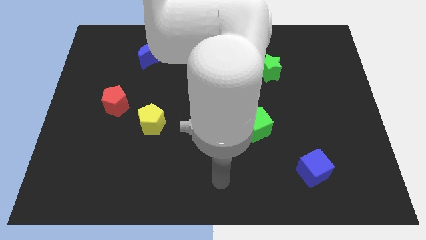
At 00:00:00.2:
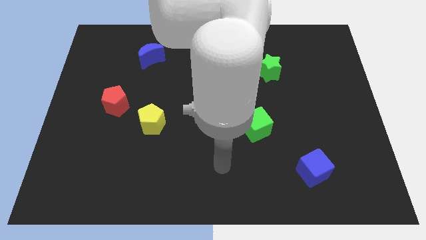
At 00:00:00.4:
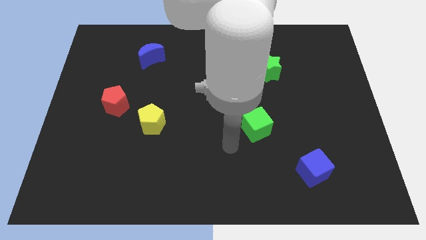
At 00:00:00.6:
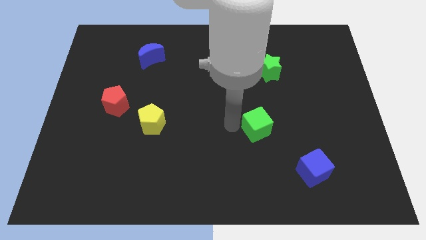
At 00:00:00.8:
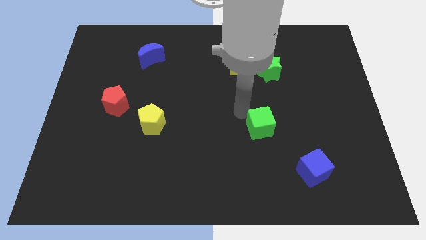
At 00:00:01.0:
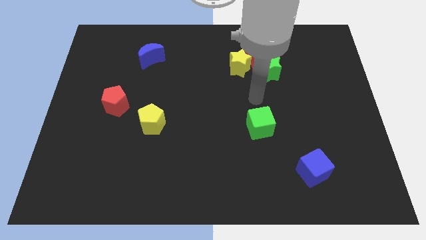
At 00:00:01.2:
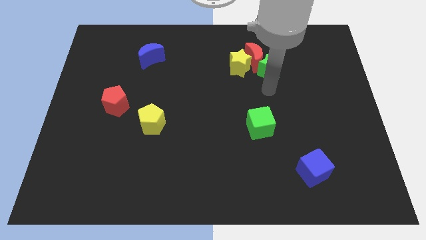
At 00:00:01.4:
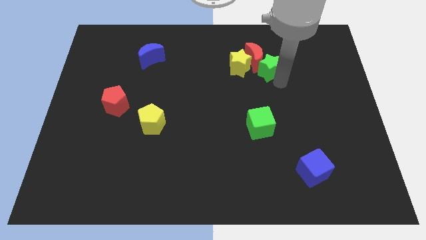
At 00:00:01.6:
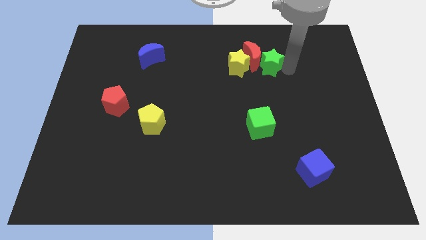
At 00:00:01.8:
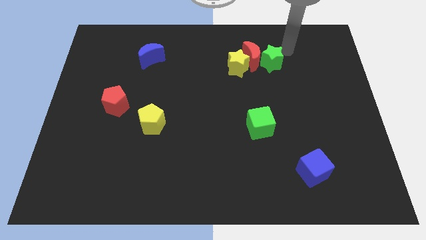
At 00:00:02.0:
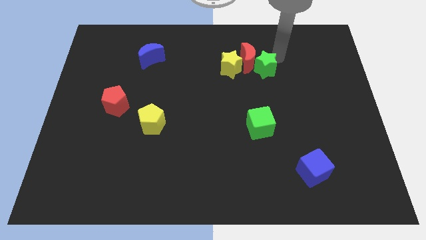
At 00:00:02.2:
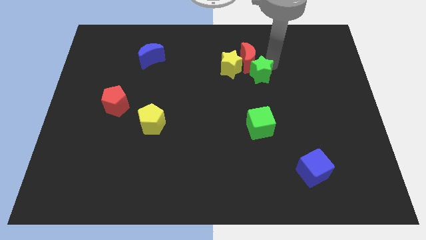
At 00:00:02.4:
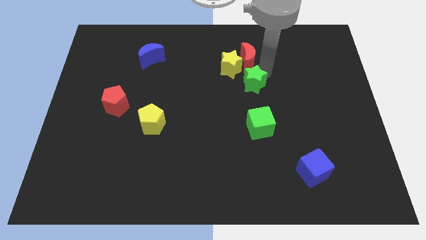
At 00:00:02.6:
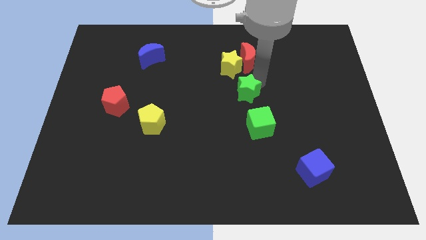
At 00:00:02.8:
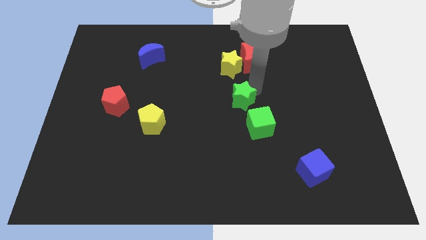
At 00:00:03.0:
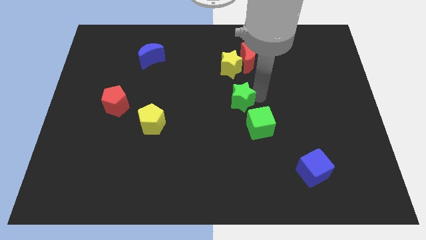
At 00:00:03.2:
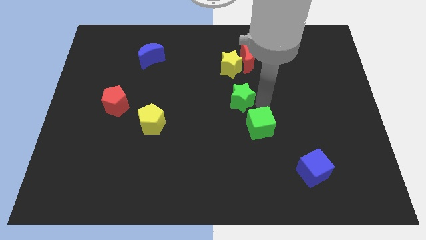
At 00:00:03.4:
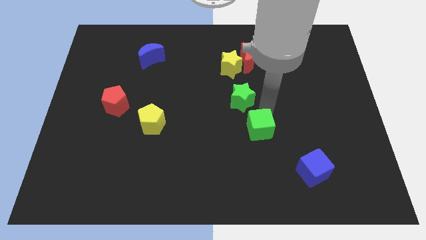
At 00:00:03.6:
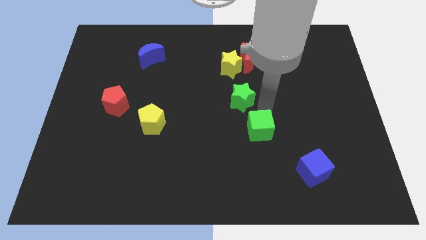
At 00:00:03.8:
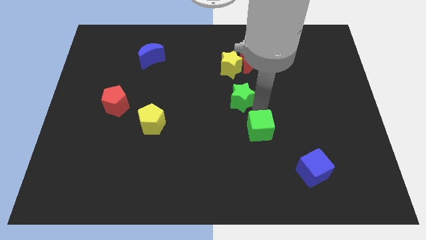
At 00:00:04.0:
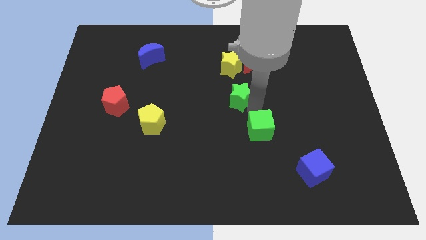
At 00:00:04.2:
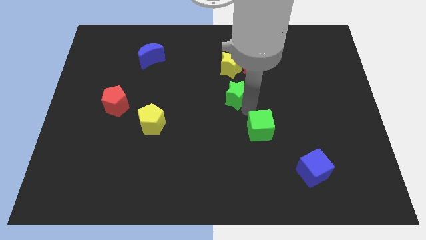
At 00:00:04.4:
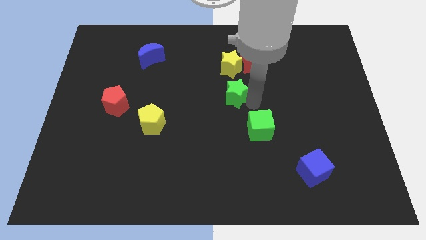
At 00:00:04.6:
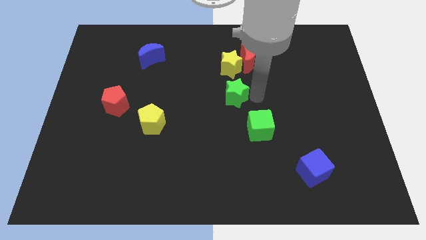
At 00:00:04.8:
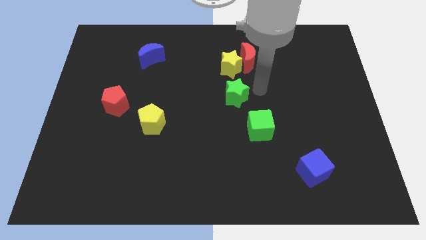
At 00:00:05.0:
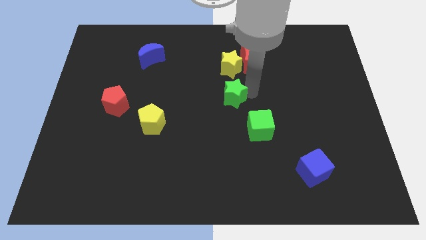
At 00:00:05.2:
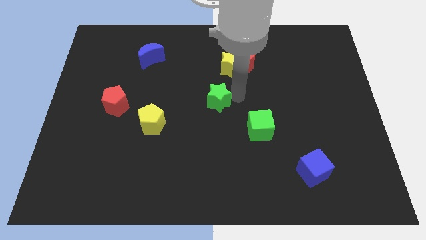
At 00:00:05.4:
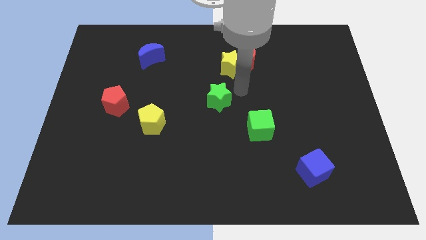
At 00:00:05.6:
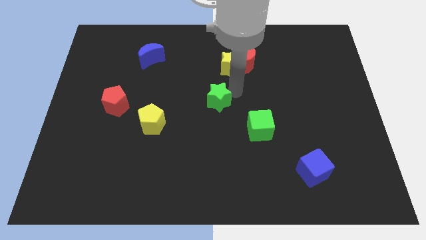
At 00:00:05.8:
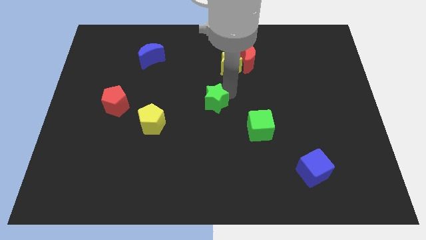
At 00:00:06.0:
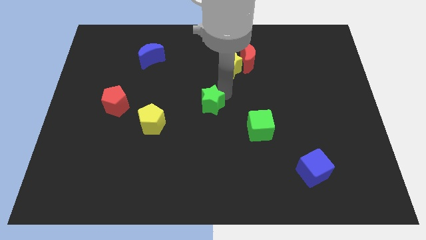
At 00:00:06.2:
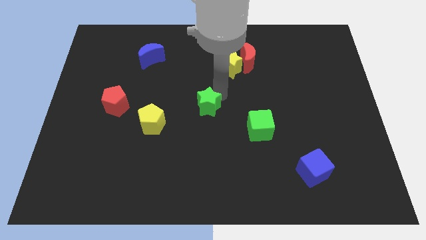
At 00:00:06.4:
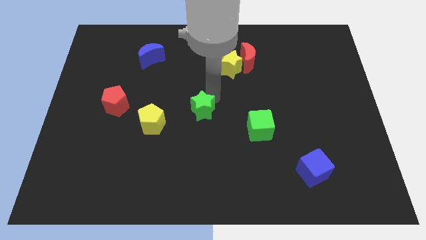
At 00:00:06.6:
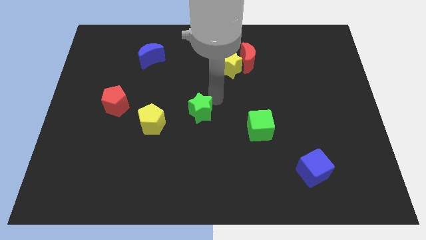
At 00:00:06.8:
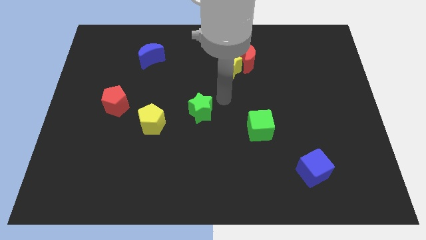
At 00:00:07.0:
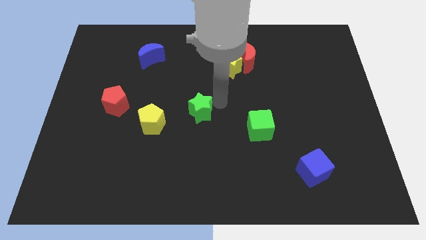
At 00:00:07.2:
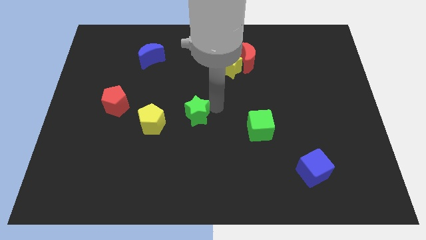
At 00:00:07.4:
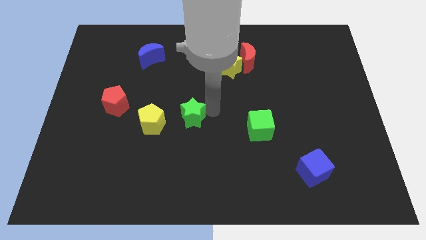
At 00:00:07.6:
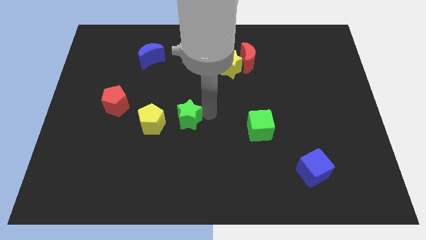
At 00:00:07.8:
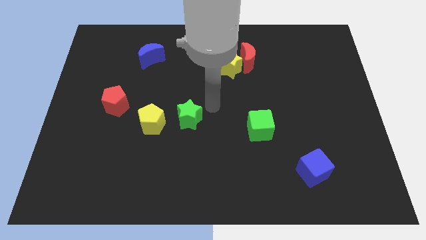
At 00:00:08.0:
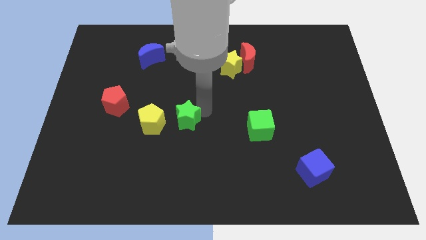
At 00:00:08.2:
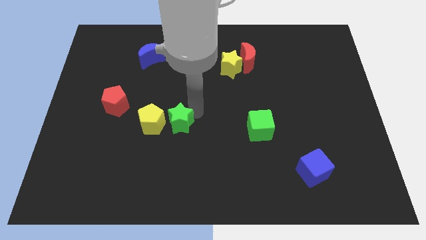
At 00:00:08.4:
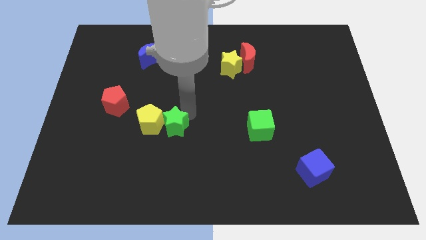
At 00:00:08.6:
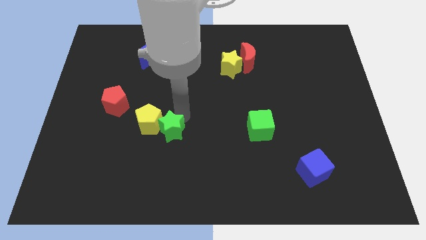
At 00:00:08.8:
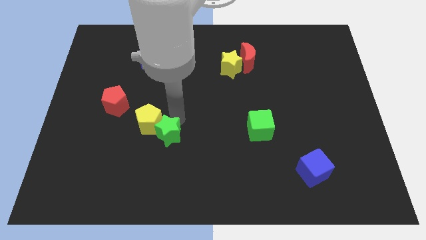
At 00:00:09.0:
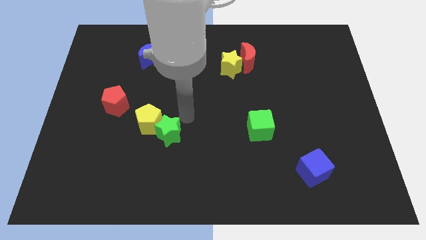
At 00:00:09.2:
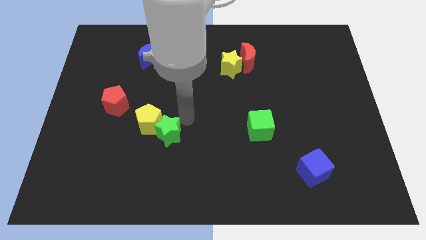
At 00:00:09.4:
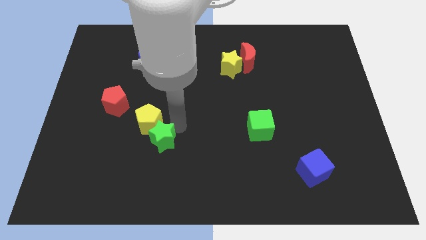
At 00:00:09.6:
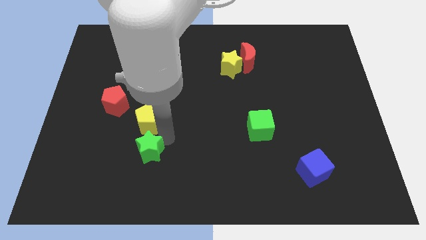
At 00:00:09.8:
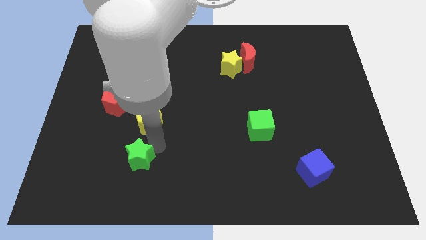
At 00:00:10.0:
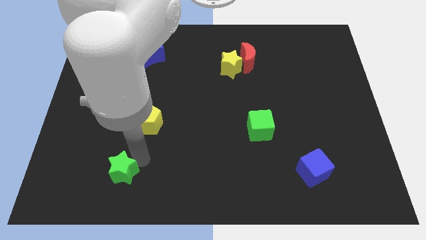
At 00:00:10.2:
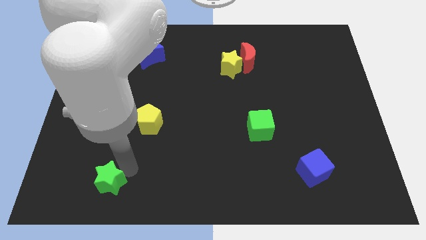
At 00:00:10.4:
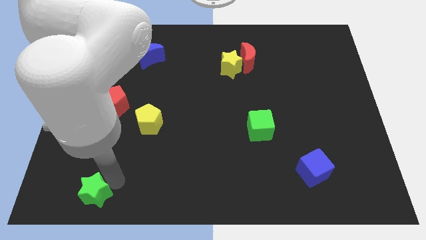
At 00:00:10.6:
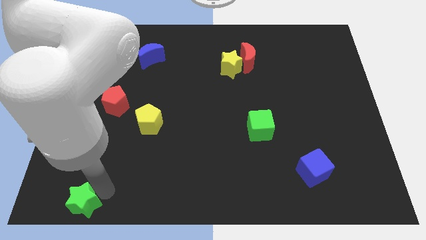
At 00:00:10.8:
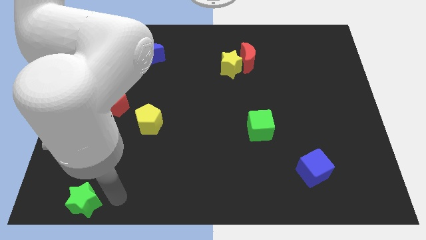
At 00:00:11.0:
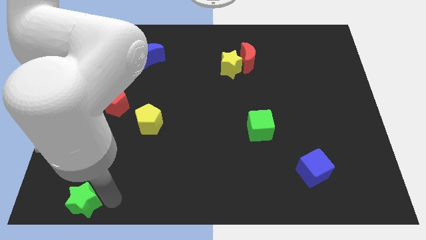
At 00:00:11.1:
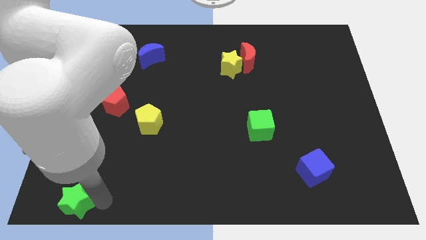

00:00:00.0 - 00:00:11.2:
put the green star to the lower left corner
